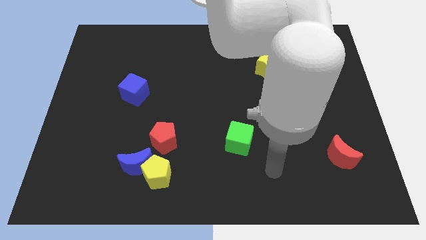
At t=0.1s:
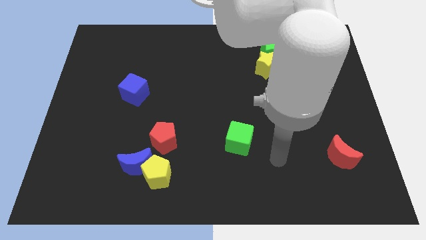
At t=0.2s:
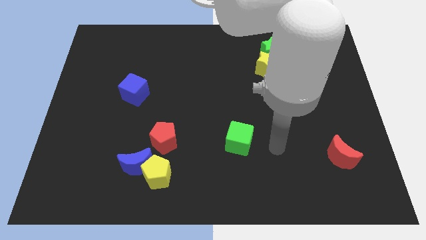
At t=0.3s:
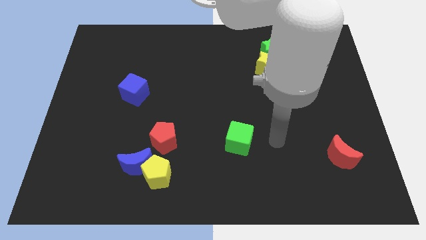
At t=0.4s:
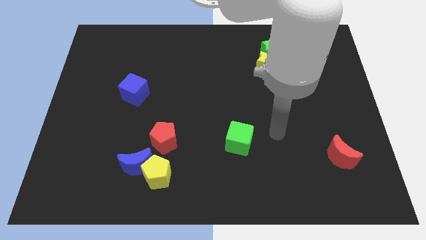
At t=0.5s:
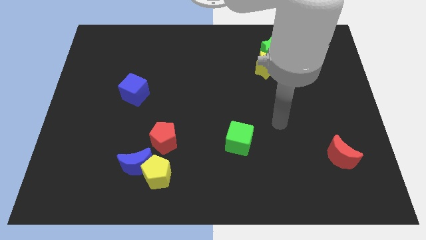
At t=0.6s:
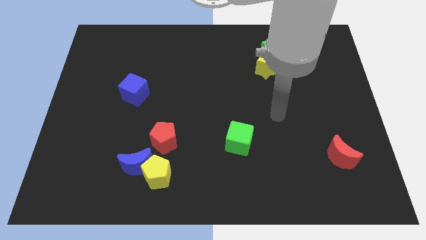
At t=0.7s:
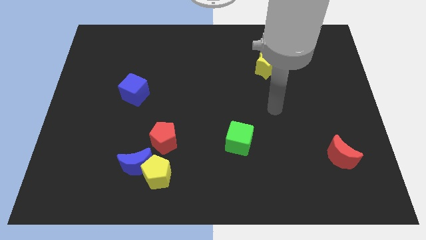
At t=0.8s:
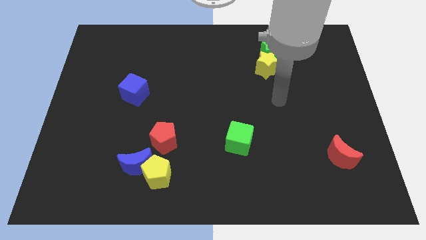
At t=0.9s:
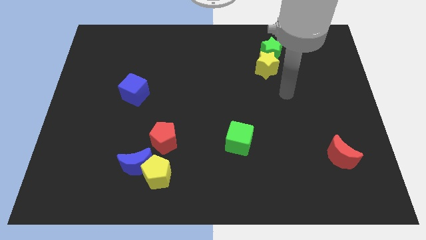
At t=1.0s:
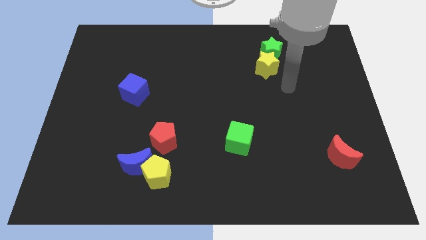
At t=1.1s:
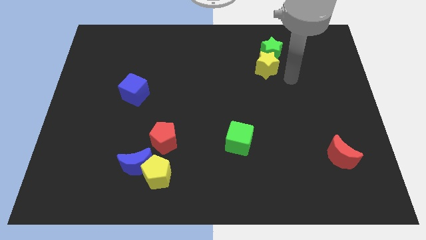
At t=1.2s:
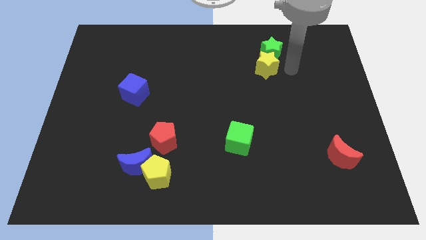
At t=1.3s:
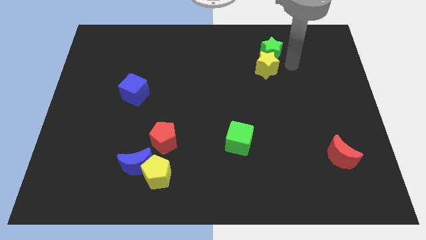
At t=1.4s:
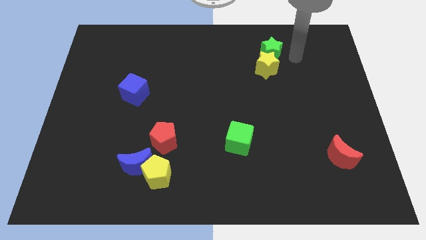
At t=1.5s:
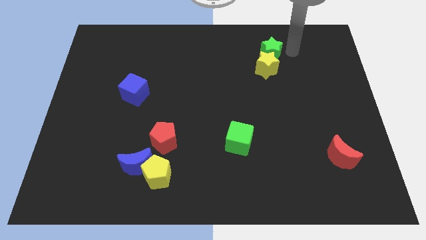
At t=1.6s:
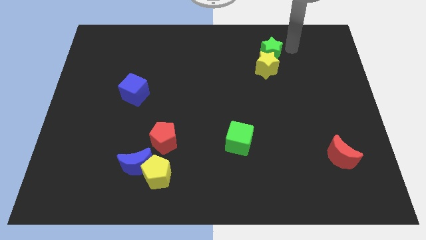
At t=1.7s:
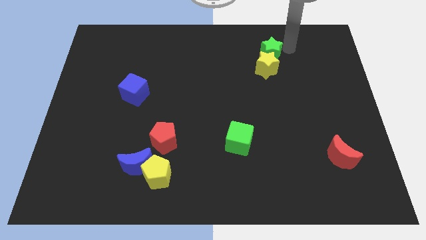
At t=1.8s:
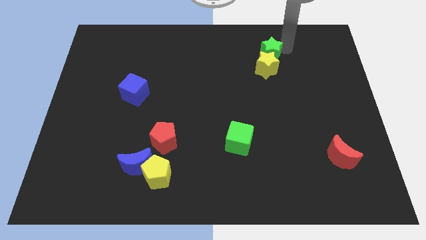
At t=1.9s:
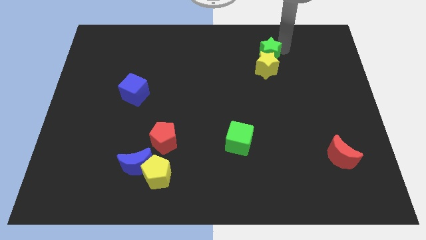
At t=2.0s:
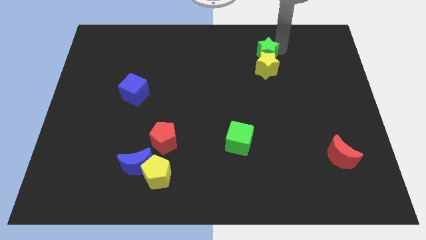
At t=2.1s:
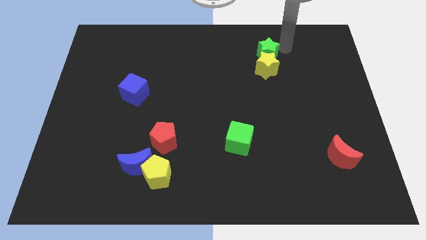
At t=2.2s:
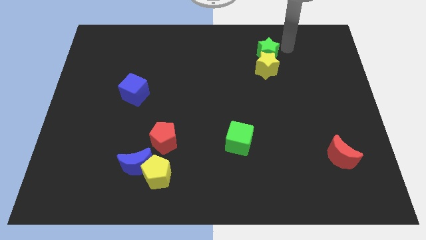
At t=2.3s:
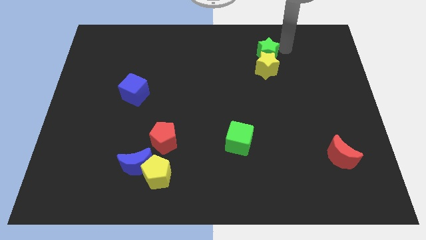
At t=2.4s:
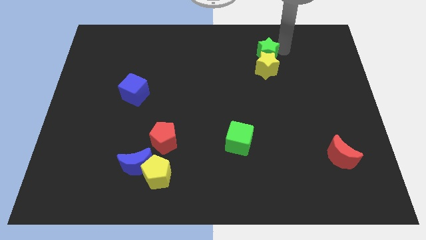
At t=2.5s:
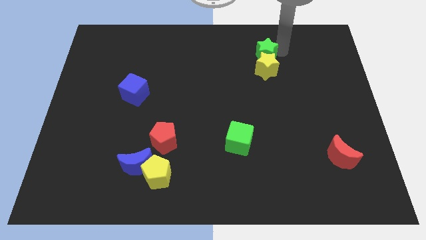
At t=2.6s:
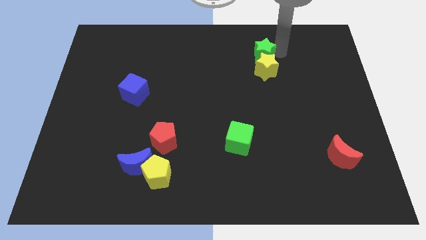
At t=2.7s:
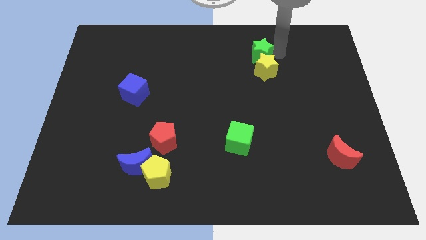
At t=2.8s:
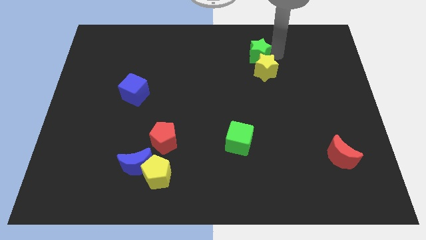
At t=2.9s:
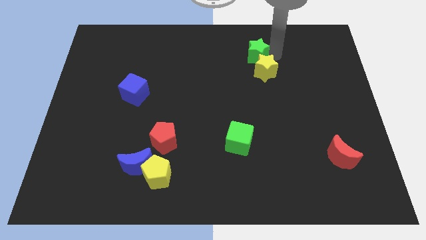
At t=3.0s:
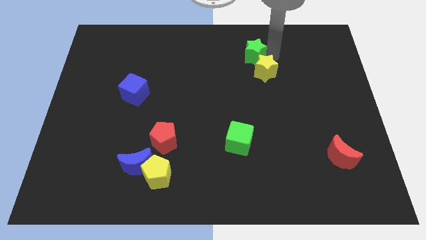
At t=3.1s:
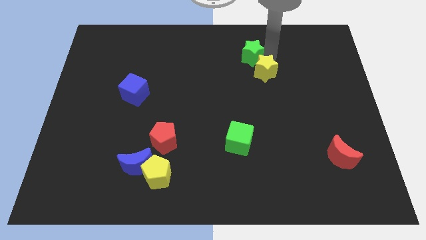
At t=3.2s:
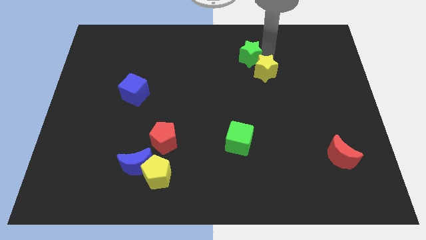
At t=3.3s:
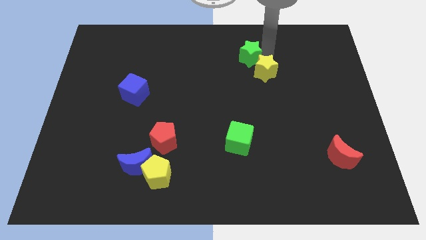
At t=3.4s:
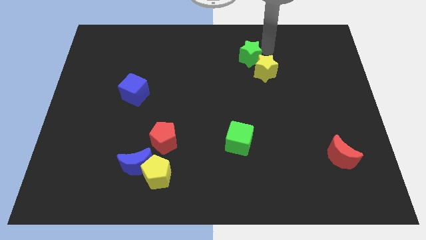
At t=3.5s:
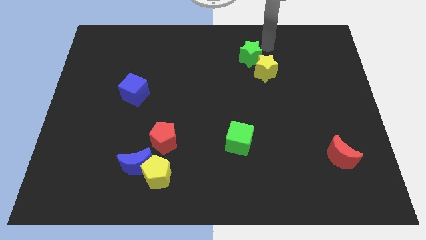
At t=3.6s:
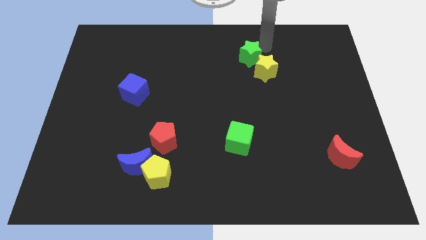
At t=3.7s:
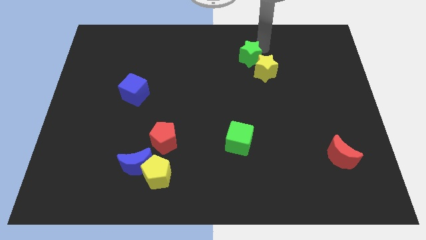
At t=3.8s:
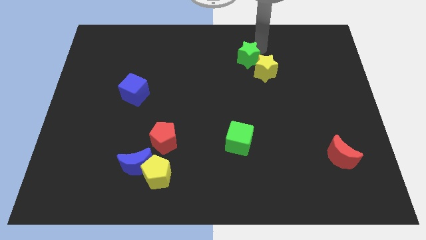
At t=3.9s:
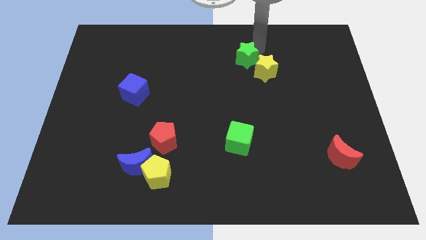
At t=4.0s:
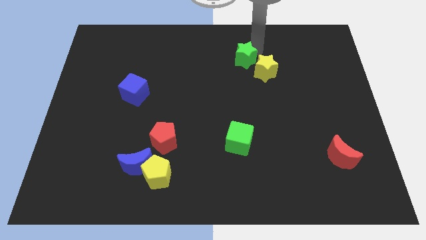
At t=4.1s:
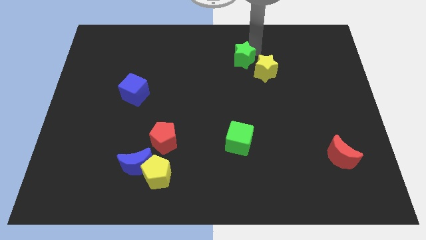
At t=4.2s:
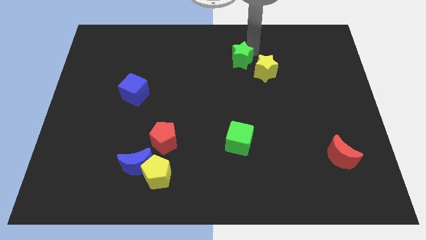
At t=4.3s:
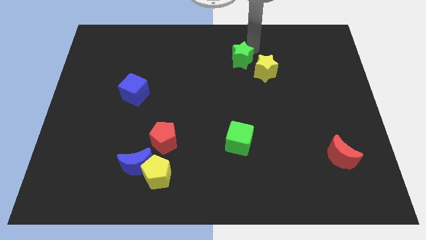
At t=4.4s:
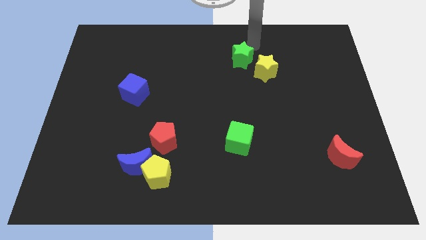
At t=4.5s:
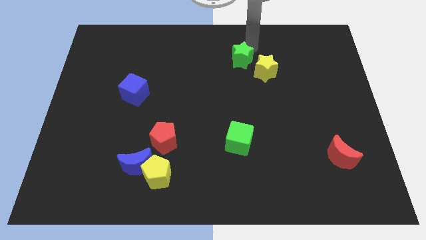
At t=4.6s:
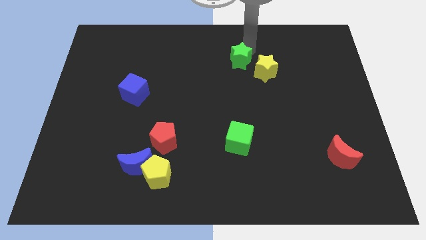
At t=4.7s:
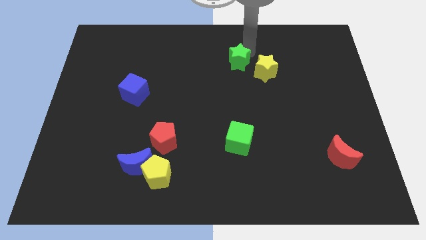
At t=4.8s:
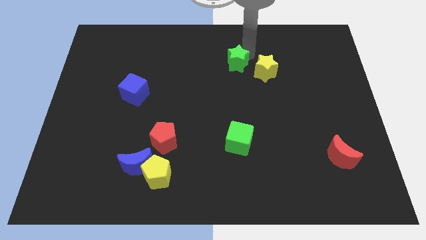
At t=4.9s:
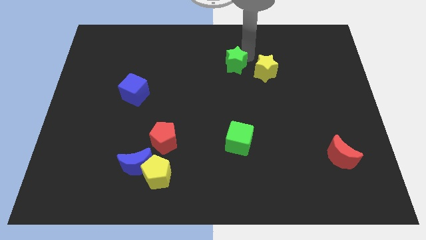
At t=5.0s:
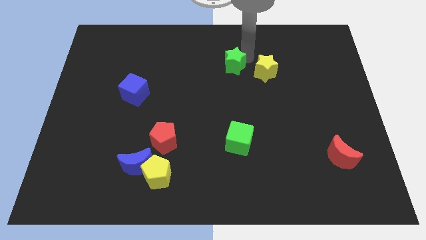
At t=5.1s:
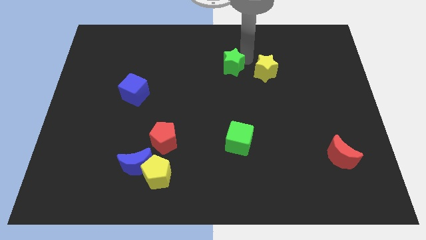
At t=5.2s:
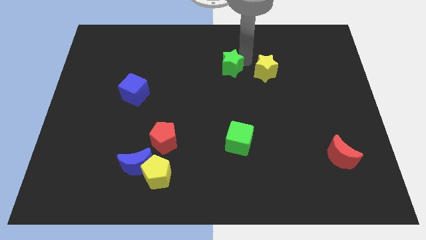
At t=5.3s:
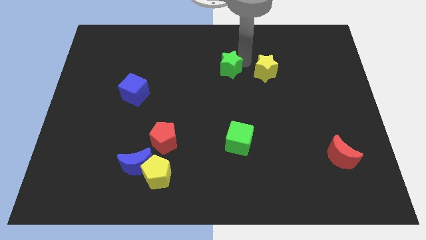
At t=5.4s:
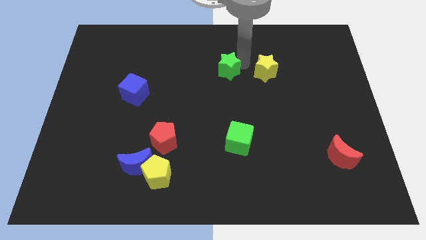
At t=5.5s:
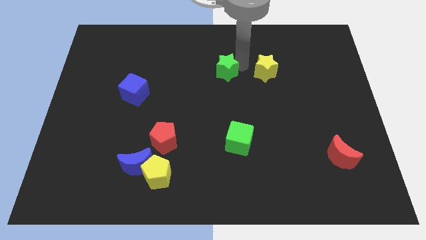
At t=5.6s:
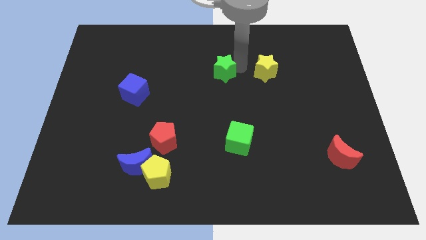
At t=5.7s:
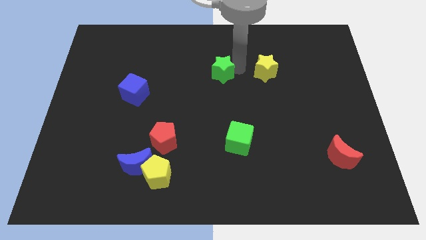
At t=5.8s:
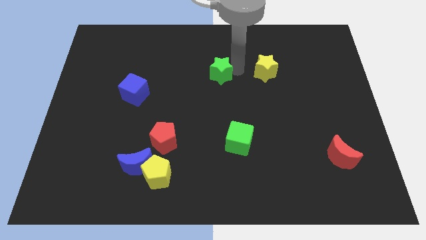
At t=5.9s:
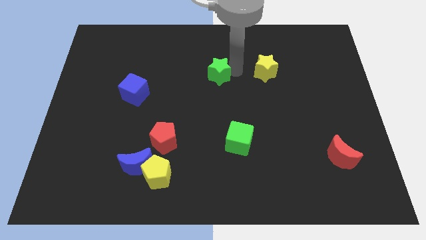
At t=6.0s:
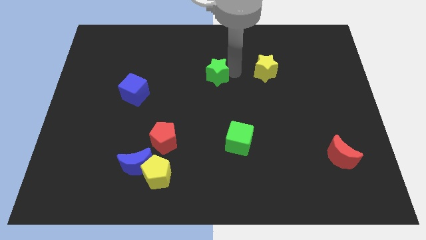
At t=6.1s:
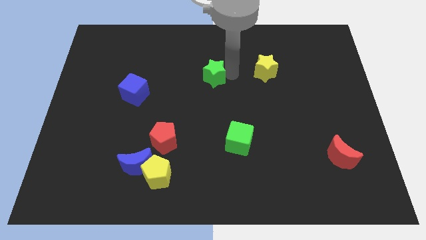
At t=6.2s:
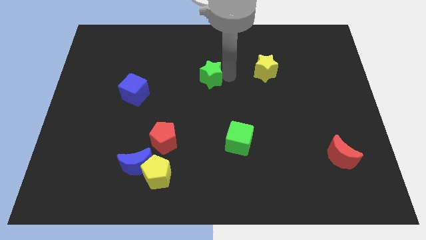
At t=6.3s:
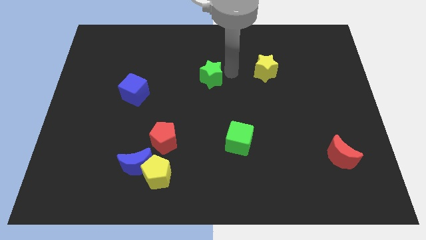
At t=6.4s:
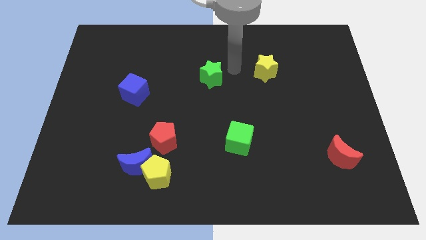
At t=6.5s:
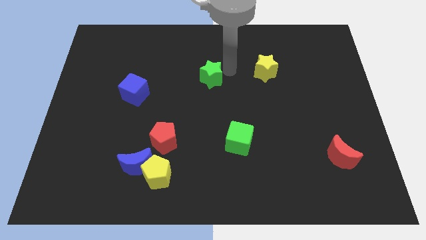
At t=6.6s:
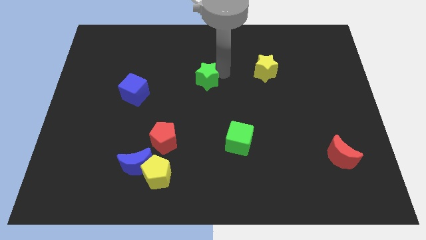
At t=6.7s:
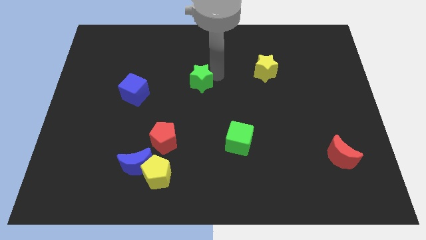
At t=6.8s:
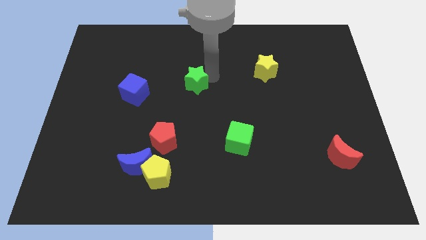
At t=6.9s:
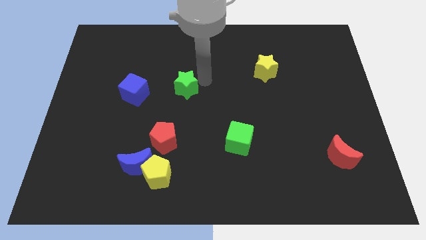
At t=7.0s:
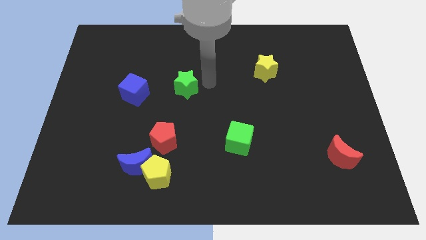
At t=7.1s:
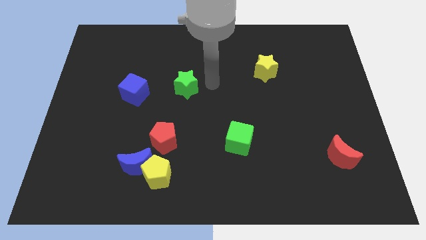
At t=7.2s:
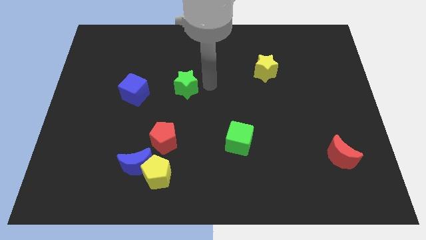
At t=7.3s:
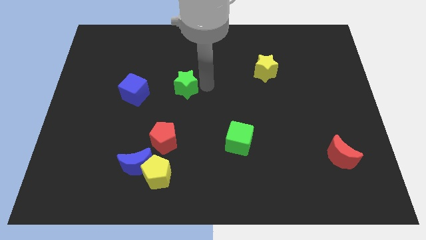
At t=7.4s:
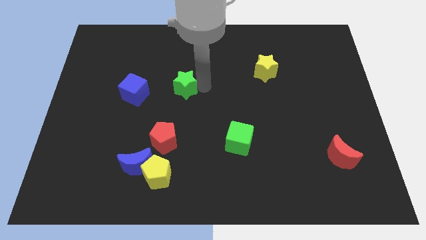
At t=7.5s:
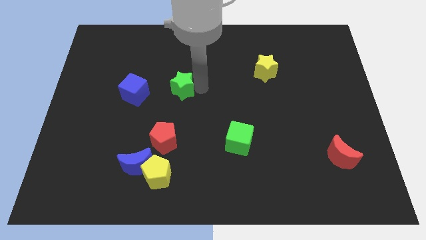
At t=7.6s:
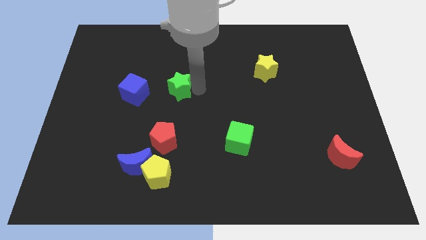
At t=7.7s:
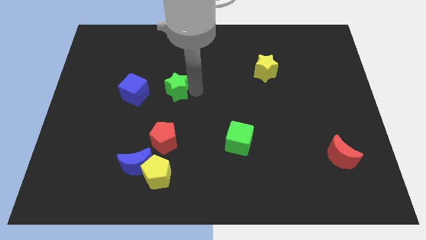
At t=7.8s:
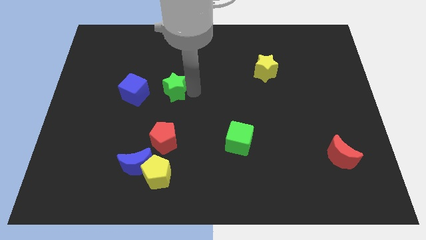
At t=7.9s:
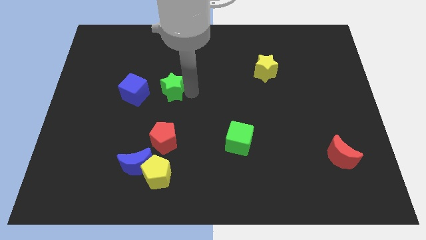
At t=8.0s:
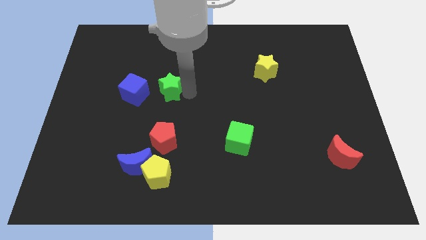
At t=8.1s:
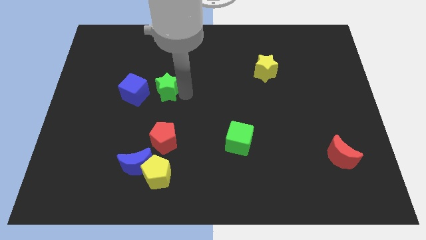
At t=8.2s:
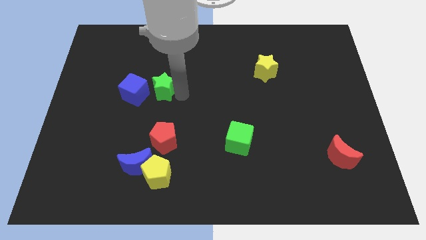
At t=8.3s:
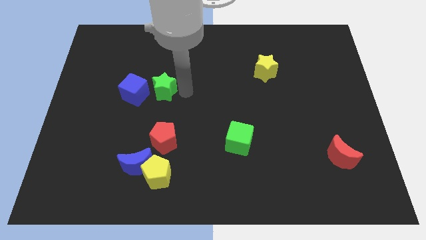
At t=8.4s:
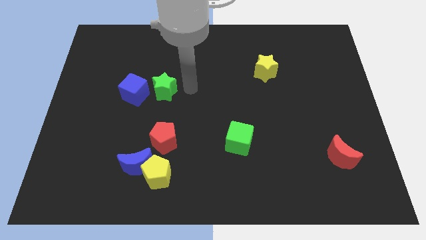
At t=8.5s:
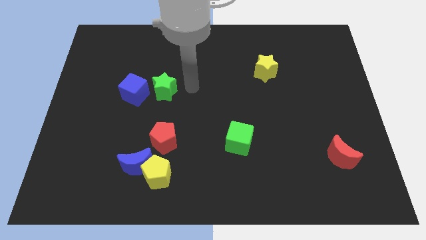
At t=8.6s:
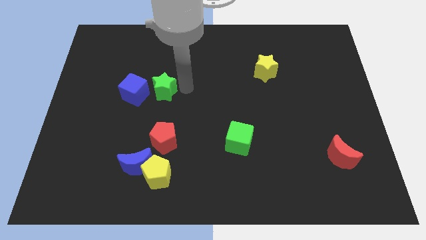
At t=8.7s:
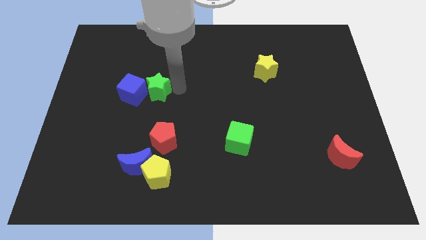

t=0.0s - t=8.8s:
move the green star close to the blue cube
